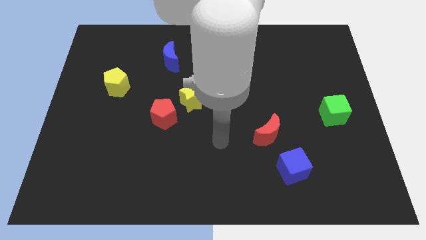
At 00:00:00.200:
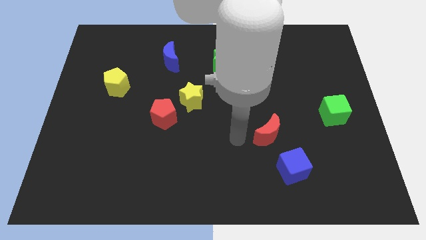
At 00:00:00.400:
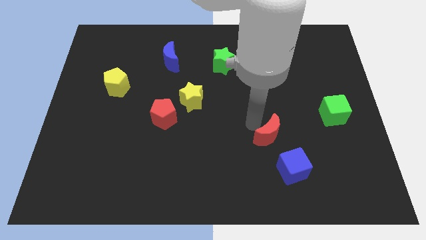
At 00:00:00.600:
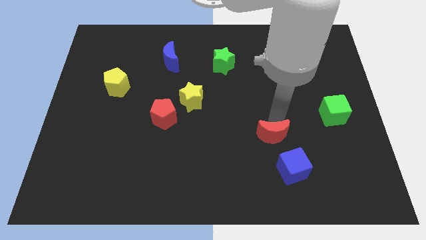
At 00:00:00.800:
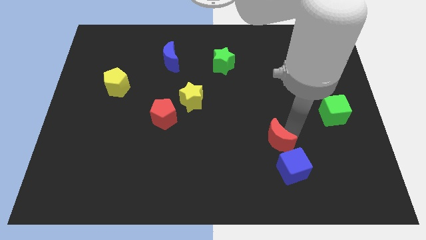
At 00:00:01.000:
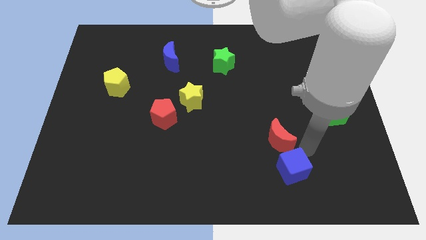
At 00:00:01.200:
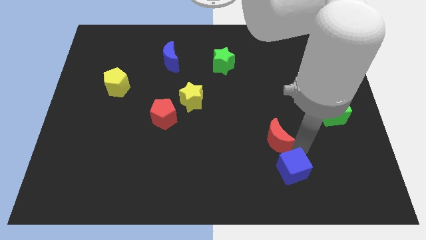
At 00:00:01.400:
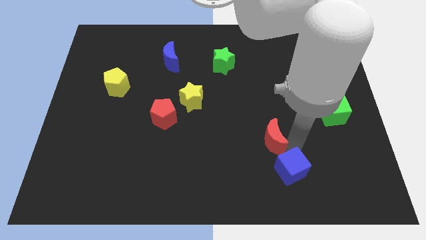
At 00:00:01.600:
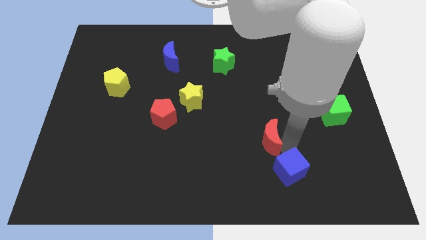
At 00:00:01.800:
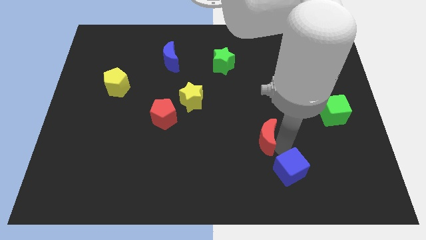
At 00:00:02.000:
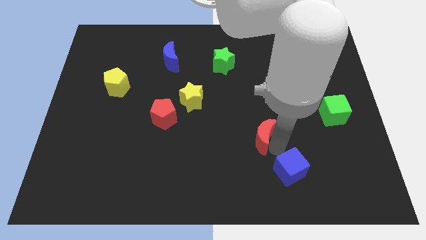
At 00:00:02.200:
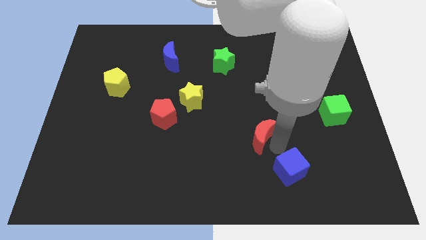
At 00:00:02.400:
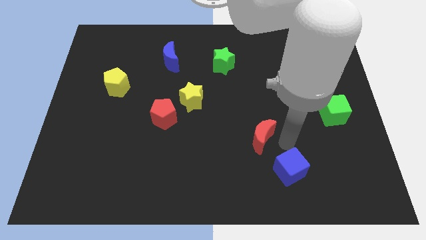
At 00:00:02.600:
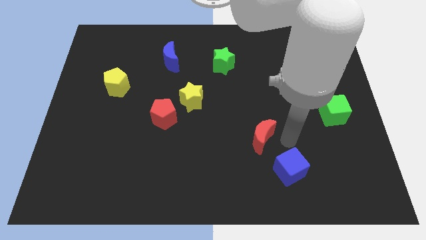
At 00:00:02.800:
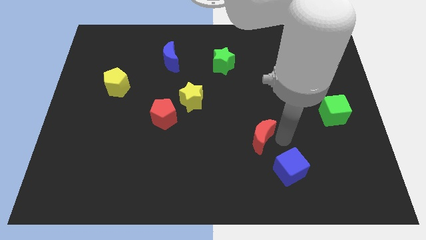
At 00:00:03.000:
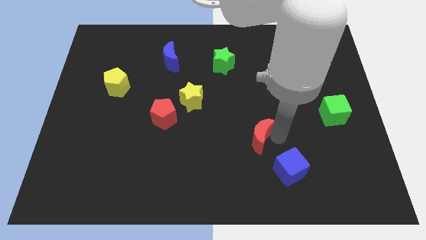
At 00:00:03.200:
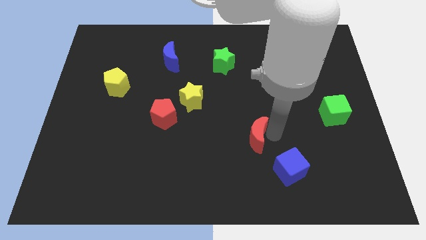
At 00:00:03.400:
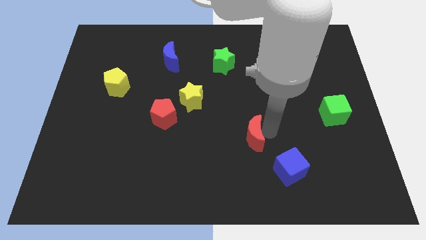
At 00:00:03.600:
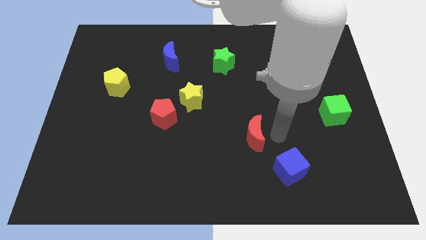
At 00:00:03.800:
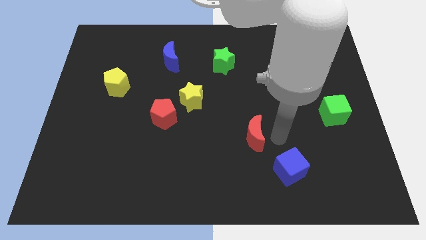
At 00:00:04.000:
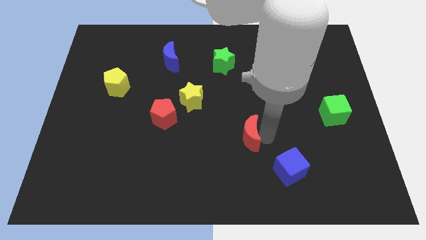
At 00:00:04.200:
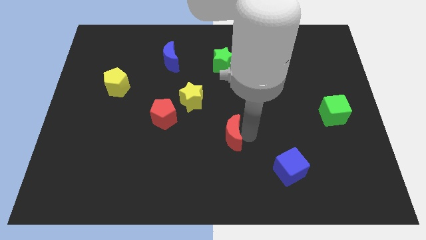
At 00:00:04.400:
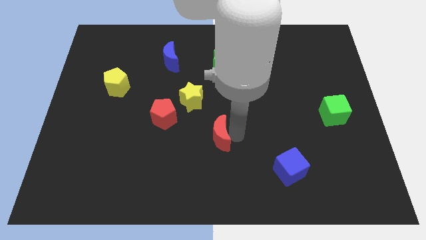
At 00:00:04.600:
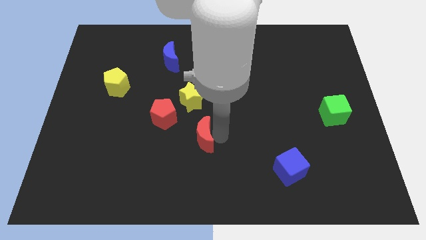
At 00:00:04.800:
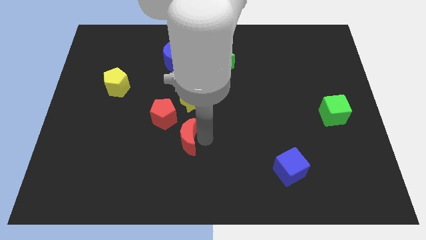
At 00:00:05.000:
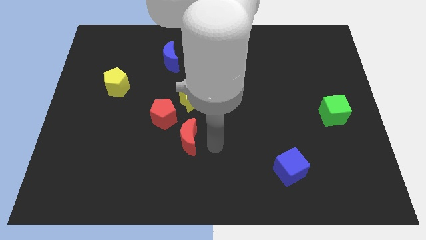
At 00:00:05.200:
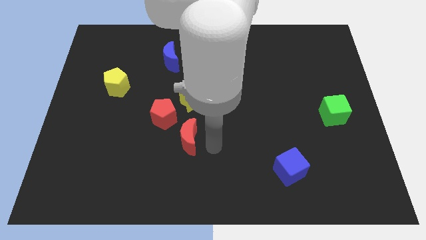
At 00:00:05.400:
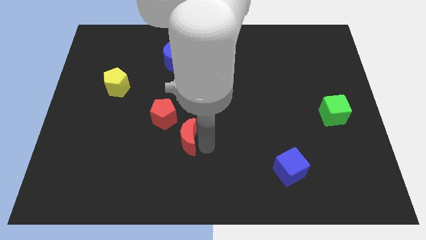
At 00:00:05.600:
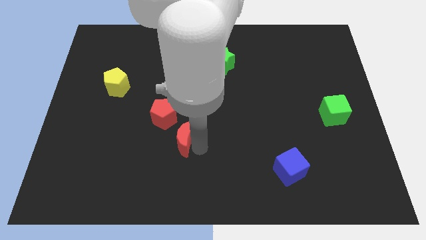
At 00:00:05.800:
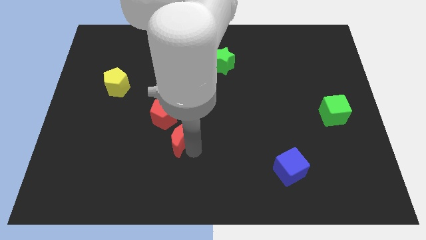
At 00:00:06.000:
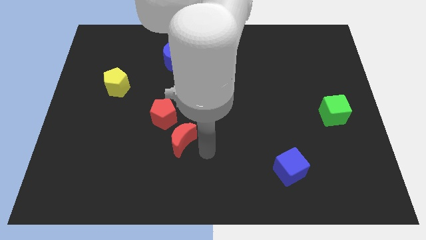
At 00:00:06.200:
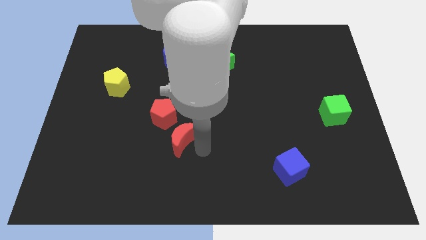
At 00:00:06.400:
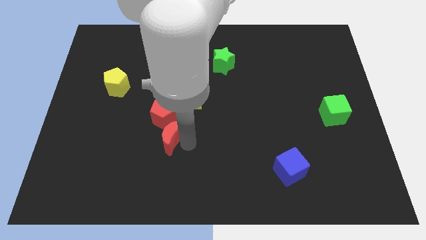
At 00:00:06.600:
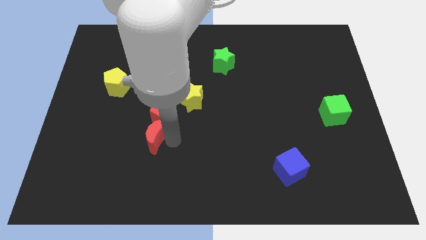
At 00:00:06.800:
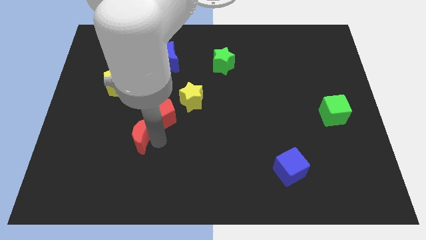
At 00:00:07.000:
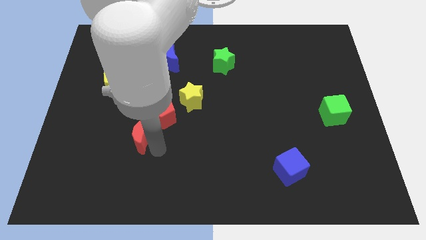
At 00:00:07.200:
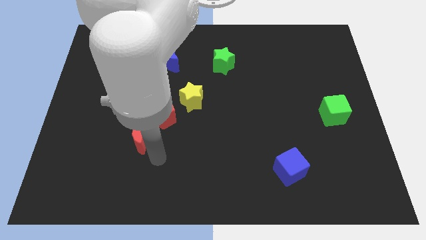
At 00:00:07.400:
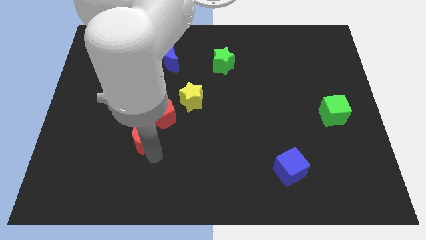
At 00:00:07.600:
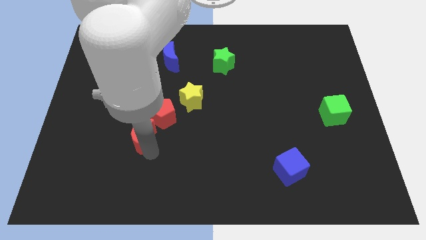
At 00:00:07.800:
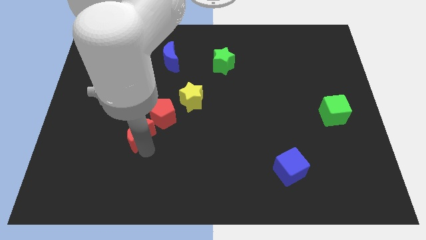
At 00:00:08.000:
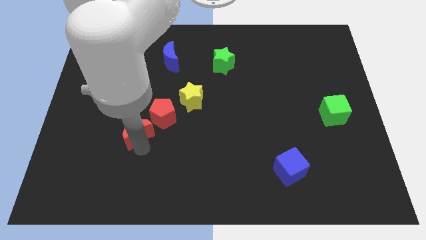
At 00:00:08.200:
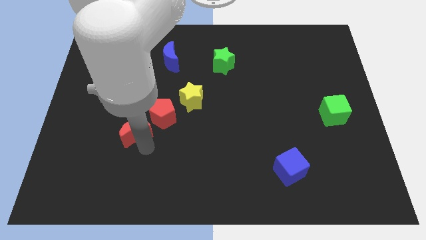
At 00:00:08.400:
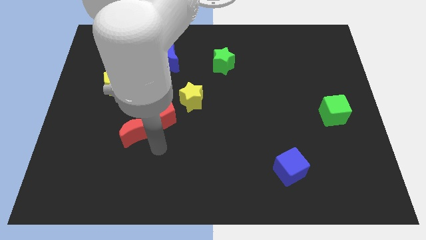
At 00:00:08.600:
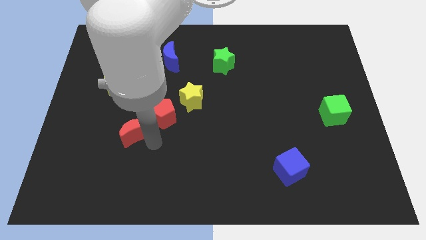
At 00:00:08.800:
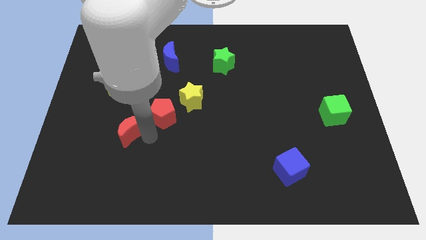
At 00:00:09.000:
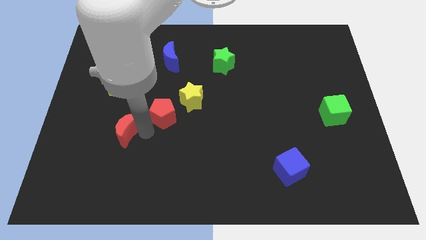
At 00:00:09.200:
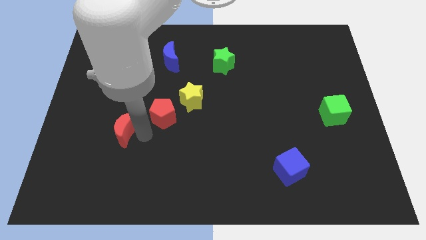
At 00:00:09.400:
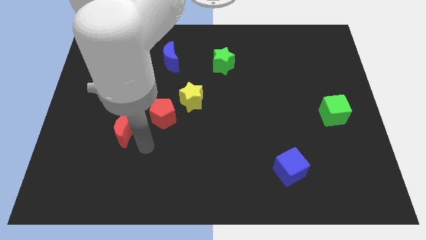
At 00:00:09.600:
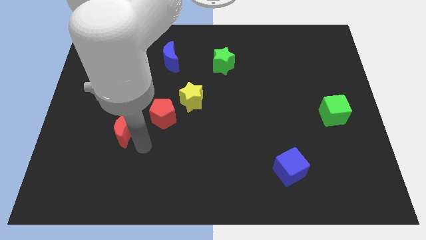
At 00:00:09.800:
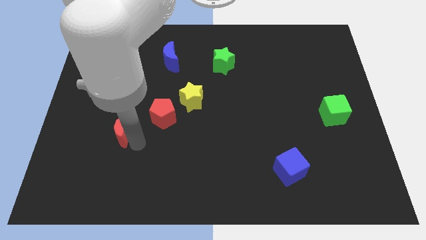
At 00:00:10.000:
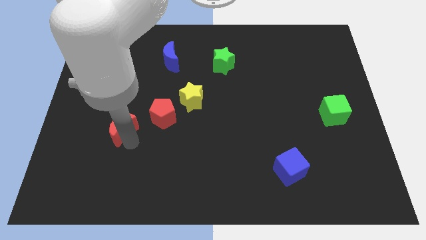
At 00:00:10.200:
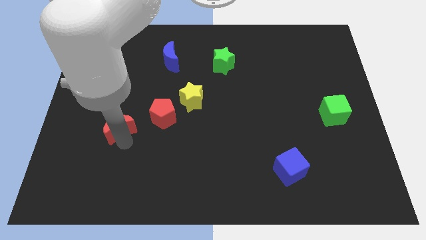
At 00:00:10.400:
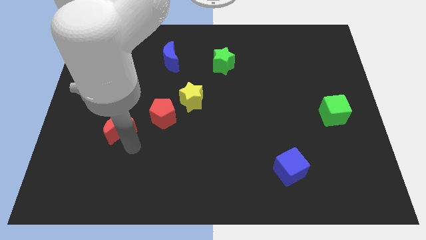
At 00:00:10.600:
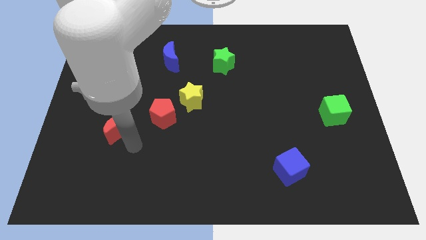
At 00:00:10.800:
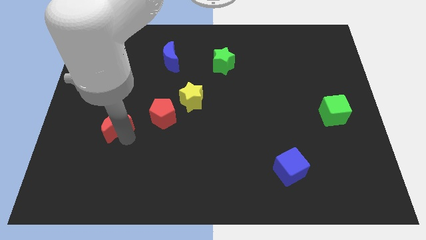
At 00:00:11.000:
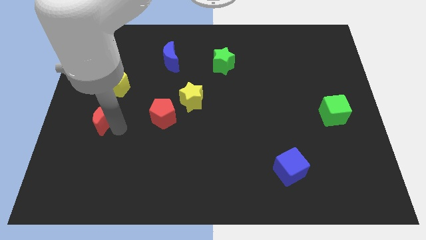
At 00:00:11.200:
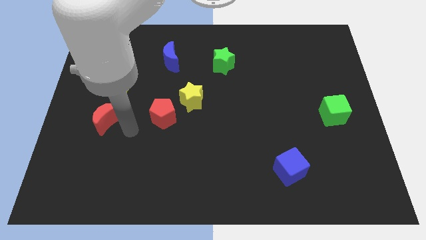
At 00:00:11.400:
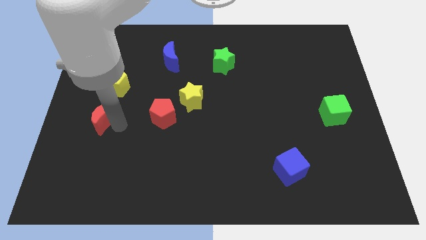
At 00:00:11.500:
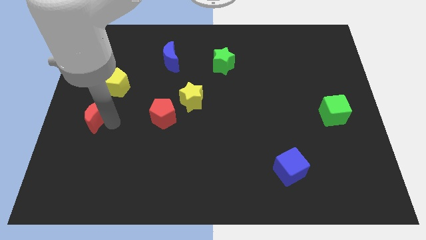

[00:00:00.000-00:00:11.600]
push the red moon to the left side
